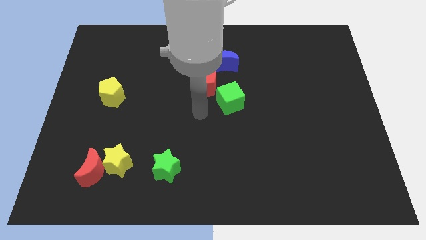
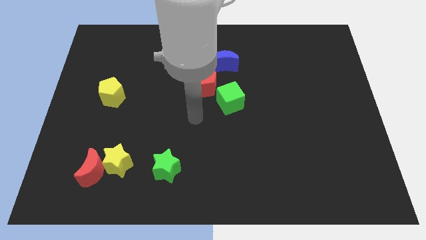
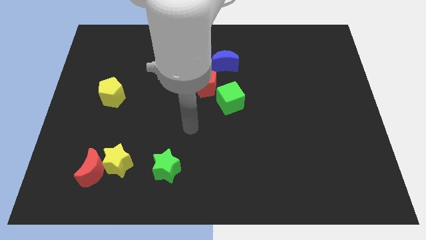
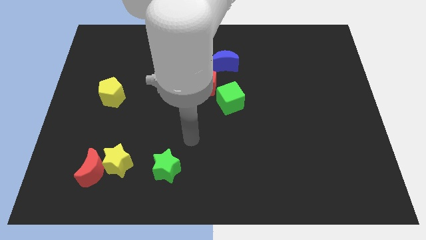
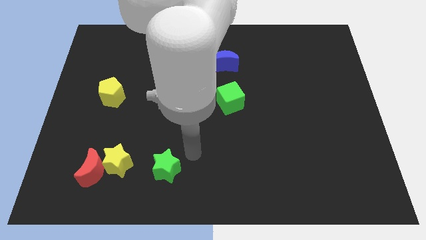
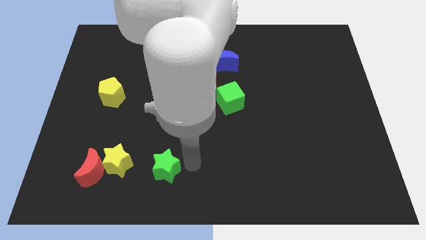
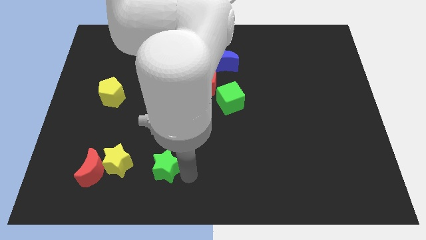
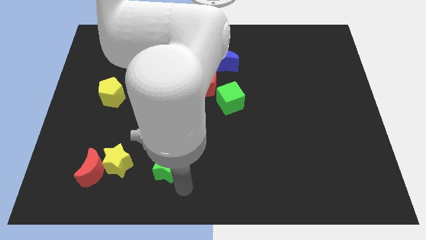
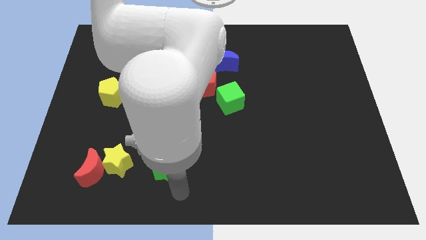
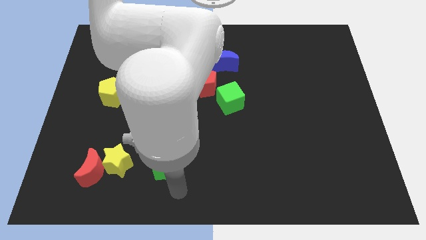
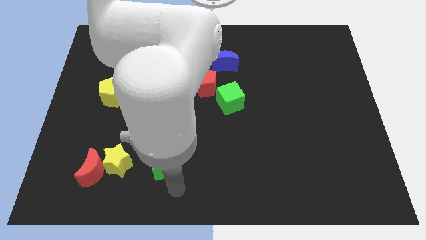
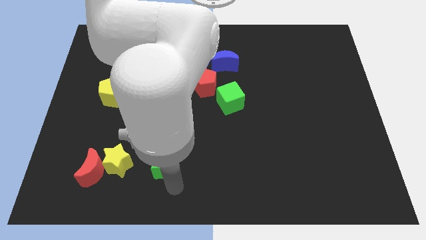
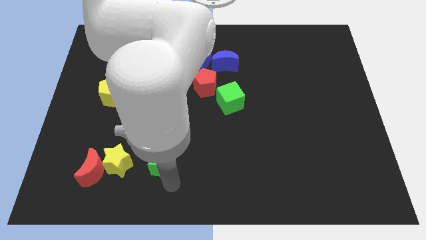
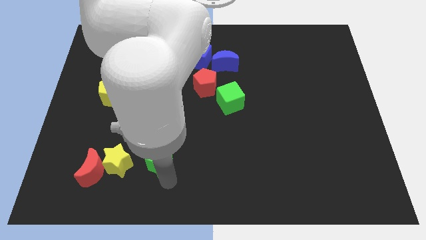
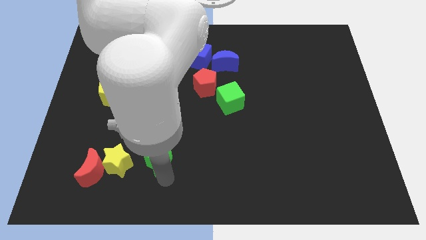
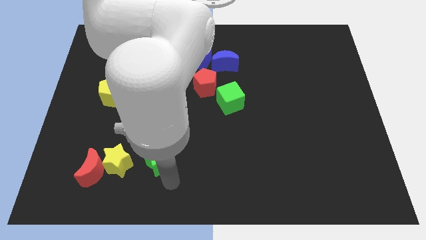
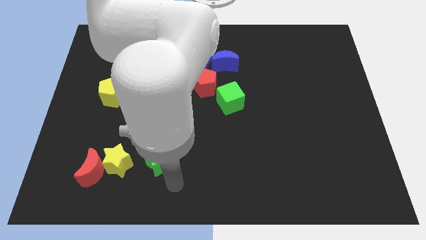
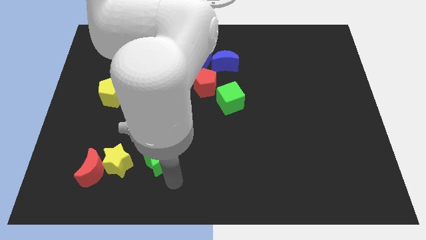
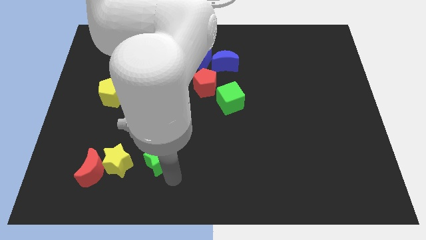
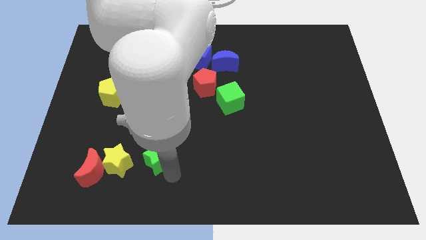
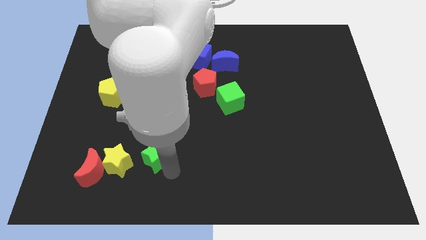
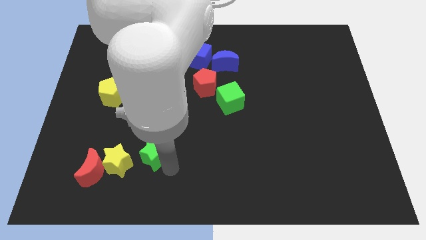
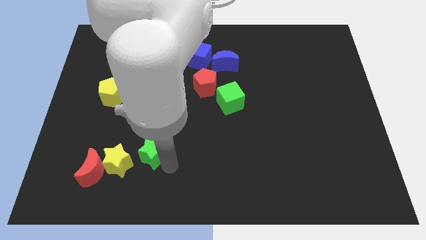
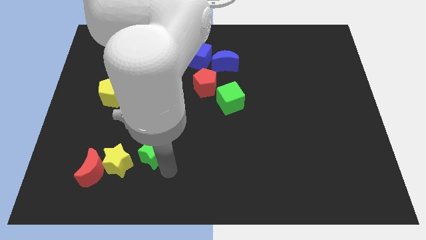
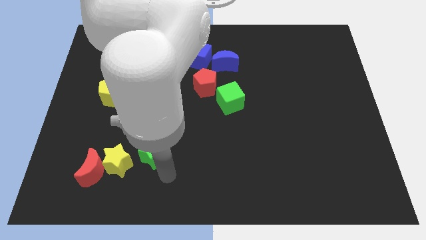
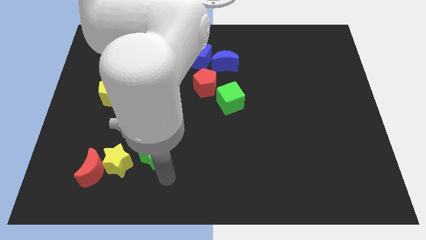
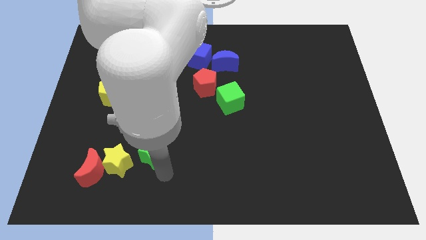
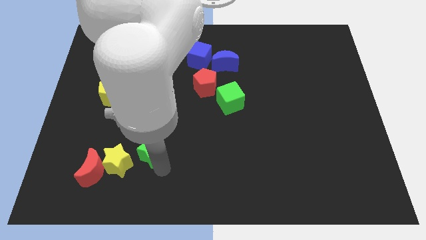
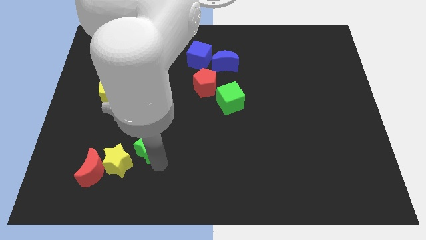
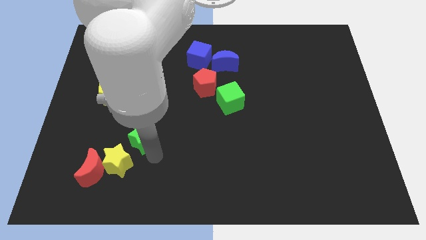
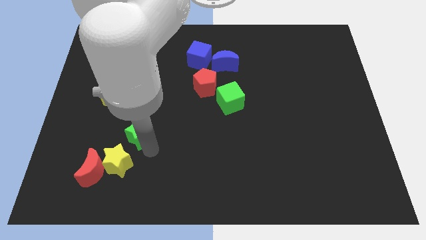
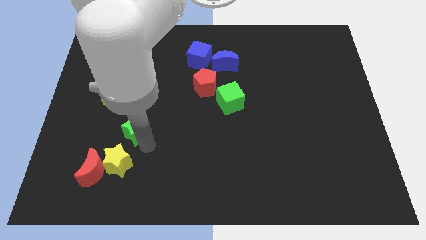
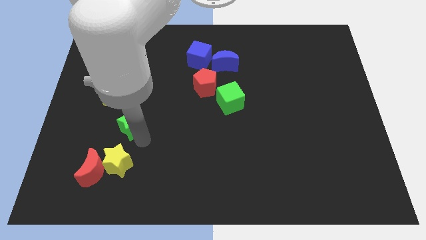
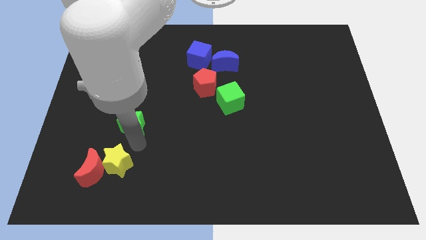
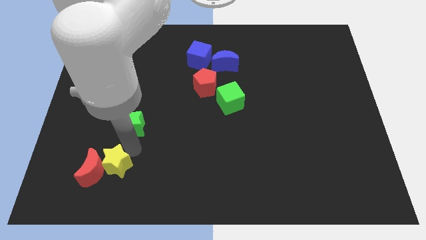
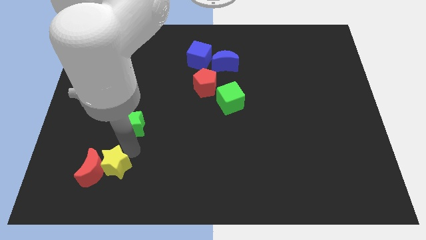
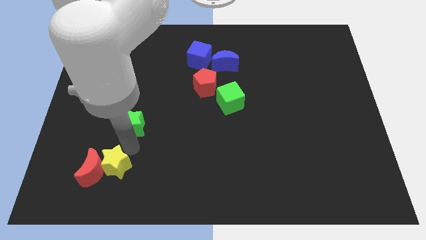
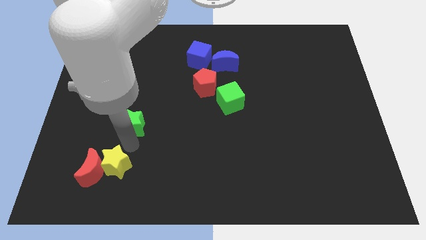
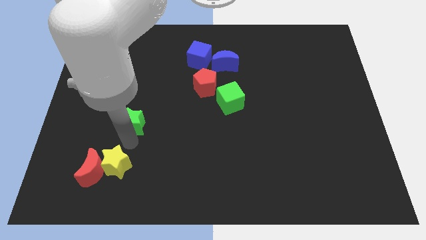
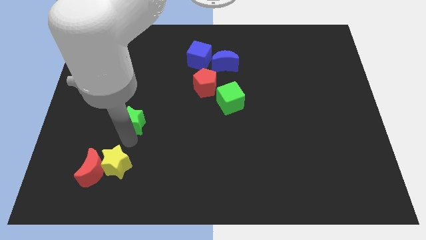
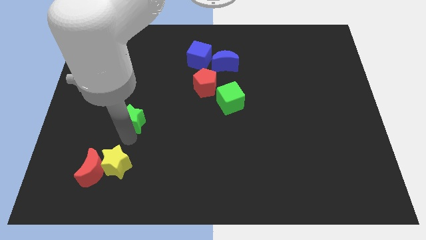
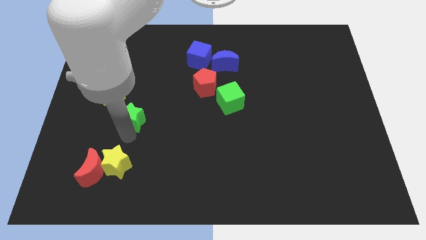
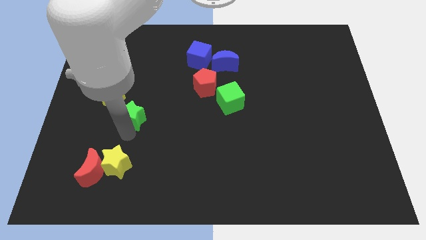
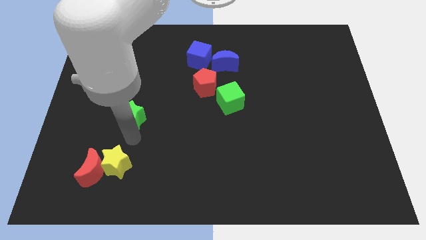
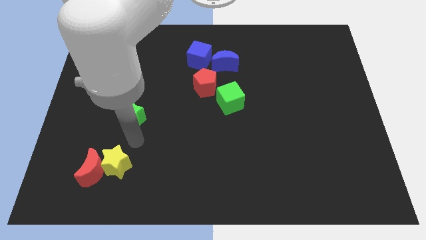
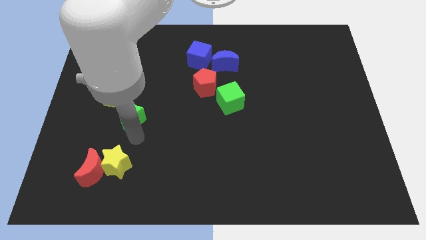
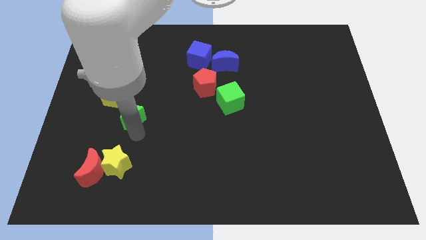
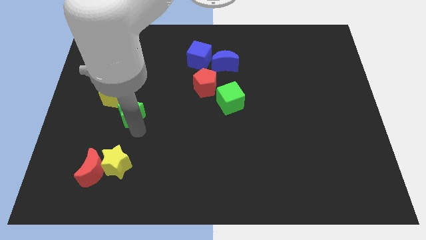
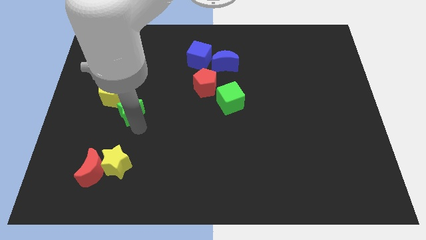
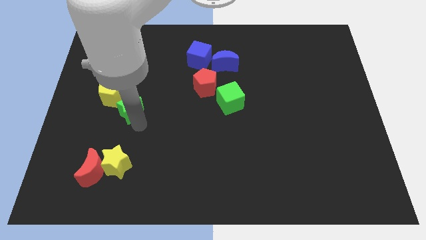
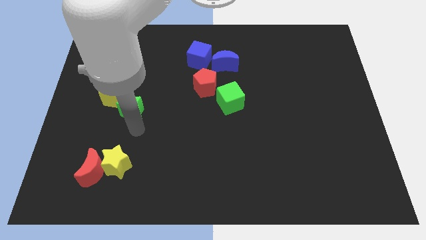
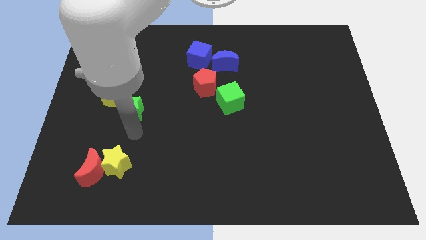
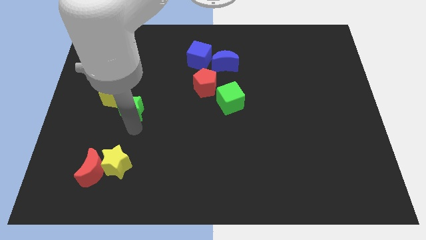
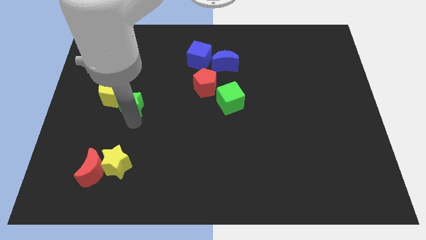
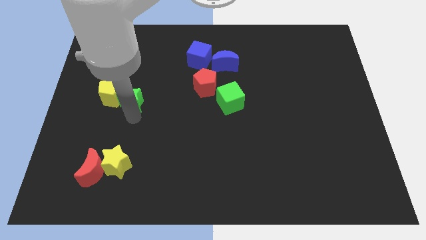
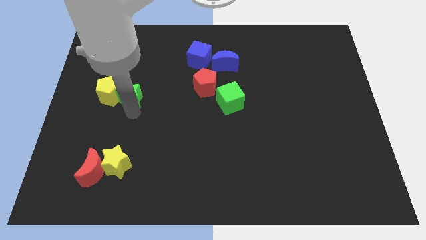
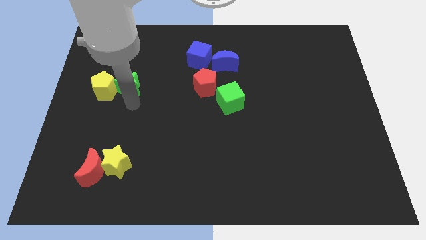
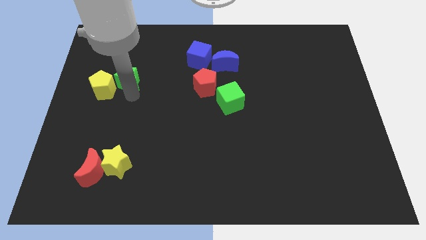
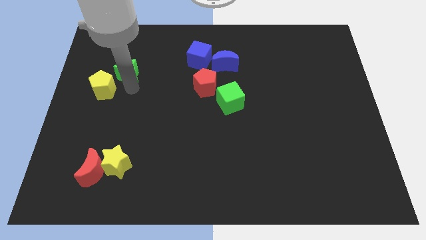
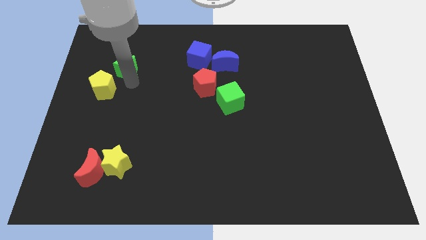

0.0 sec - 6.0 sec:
move the green star to the top of the yellow pentagon

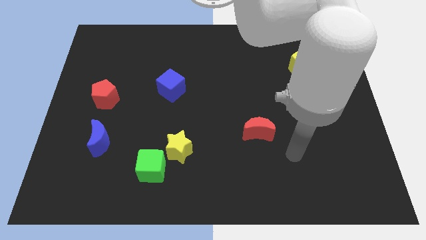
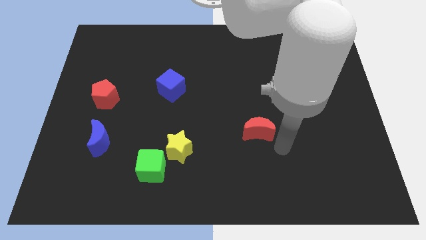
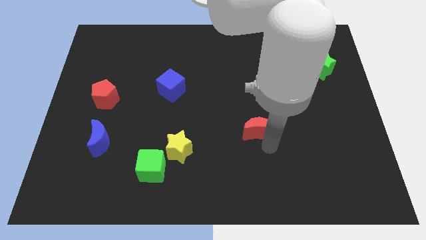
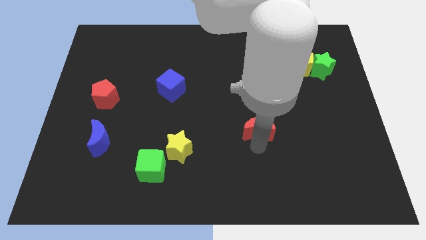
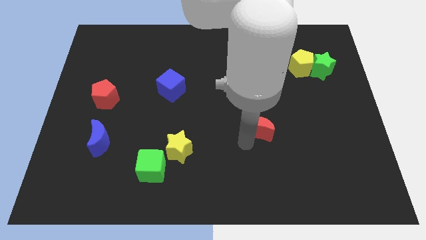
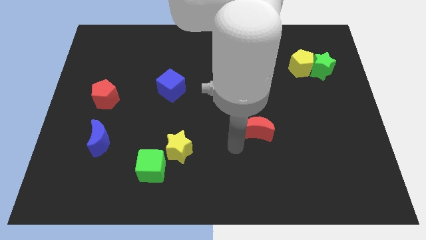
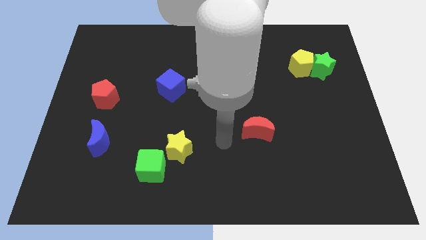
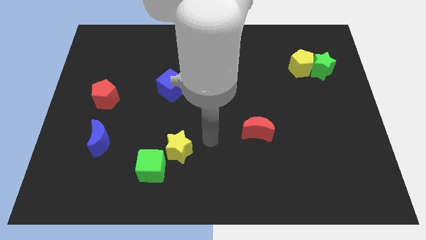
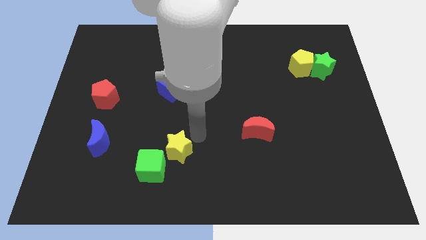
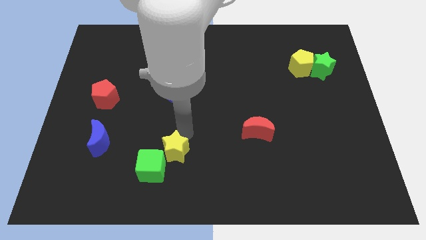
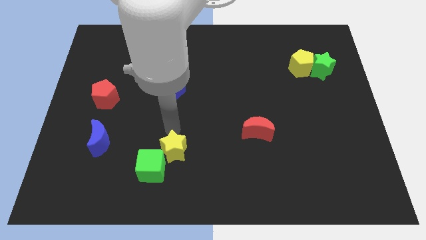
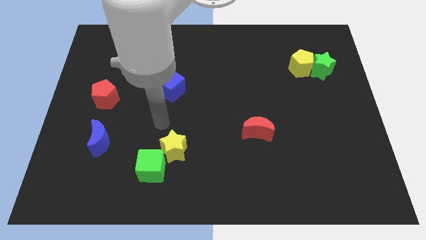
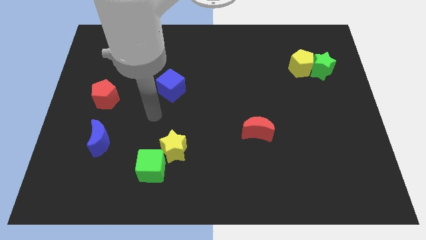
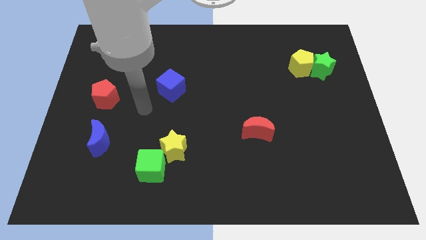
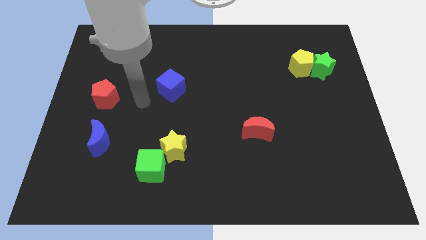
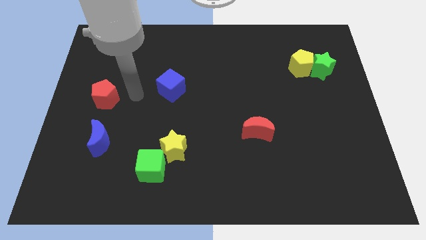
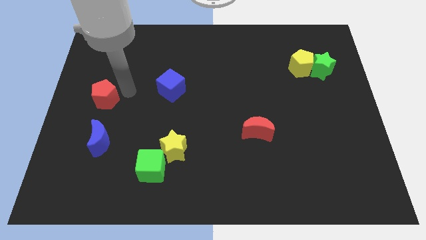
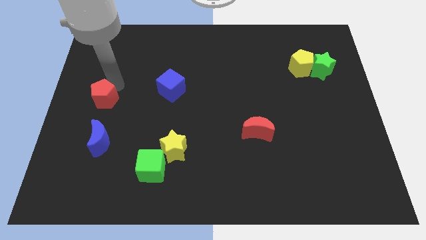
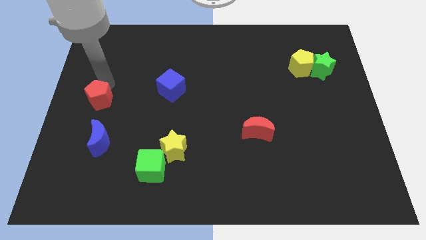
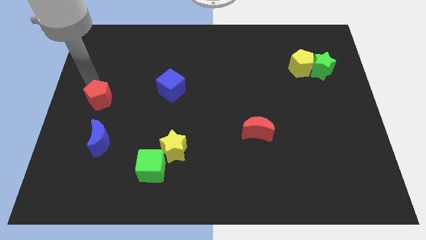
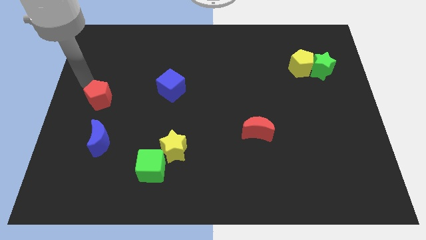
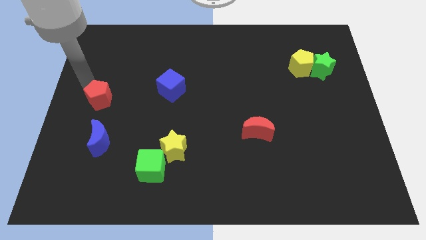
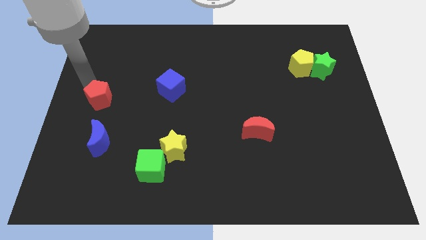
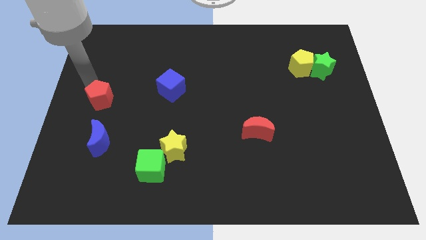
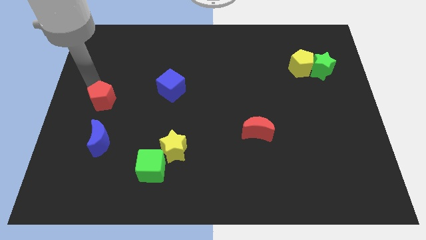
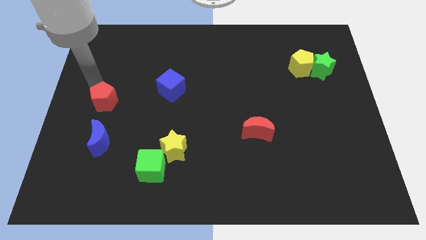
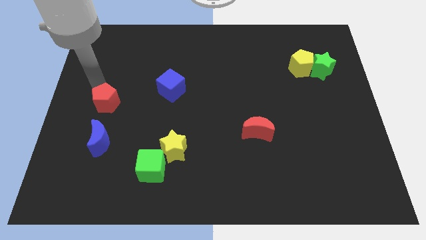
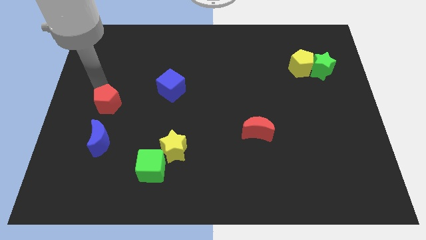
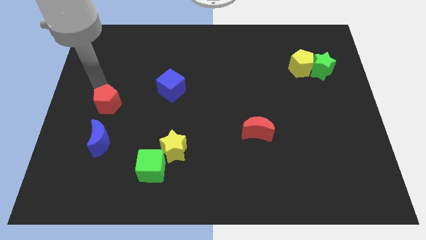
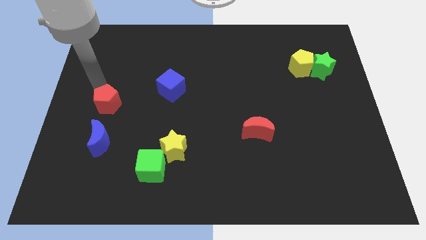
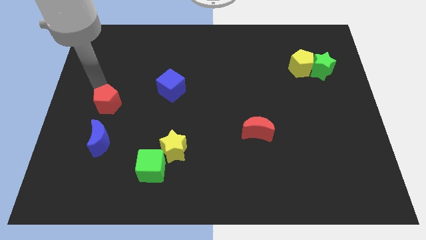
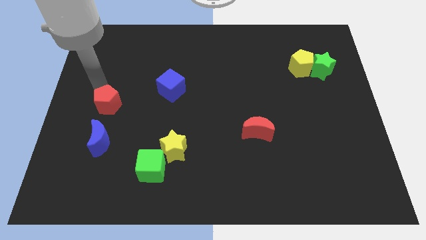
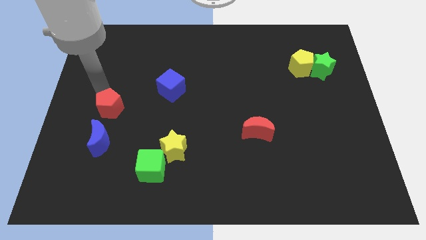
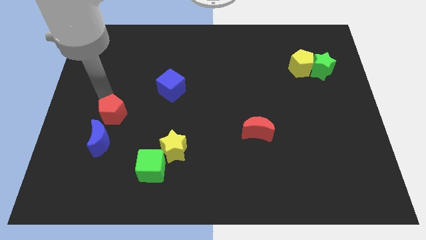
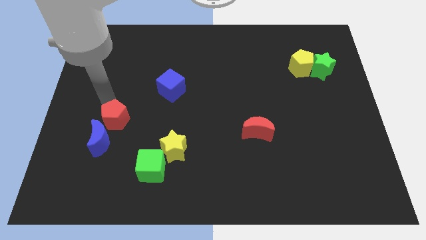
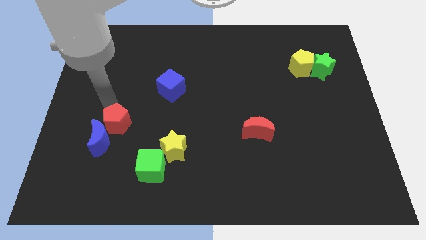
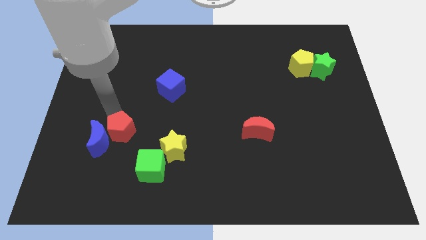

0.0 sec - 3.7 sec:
slide the red pentagon to the top left of the green cube
